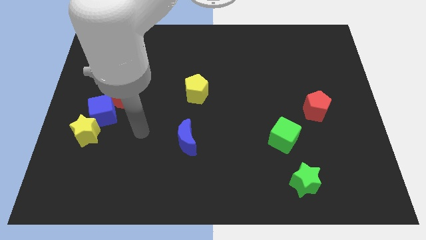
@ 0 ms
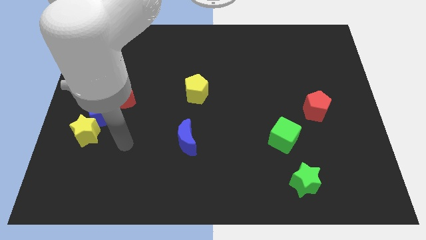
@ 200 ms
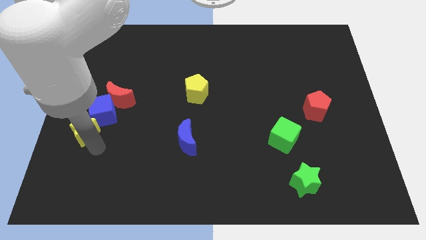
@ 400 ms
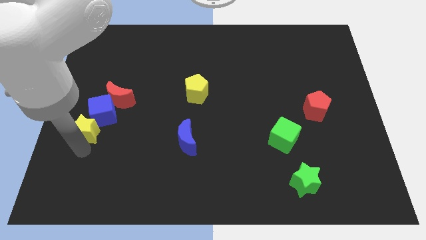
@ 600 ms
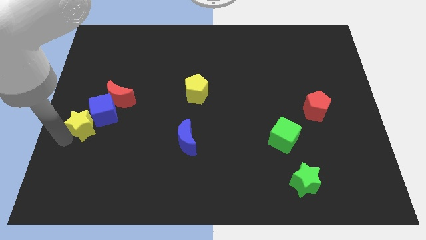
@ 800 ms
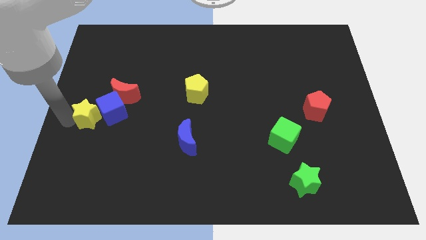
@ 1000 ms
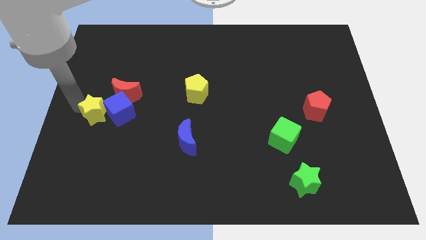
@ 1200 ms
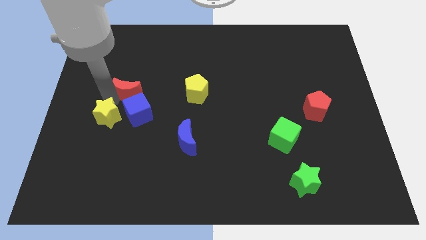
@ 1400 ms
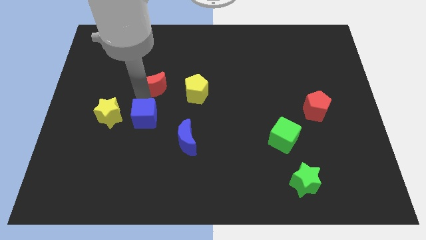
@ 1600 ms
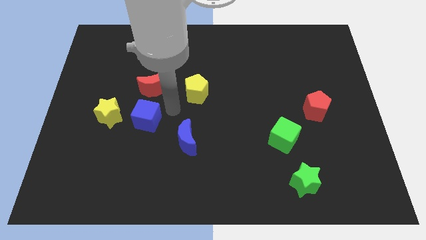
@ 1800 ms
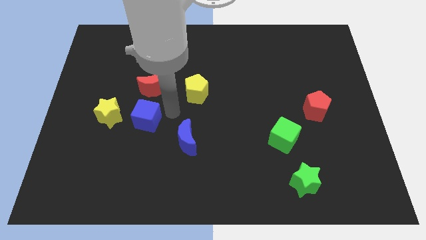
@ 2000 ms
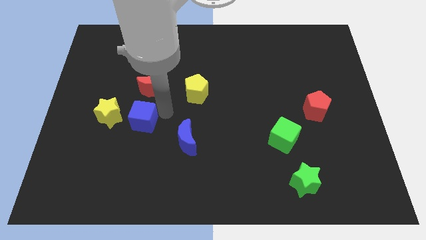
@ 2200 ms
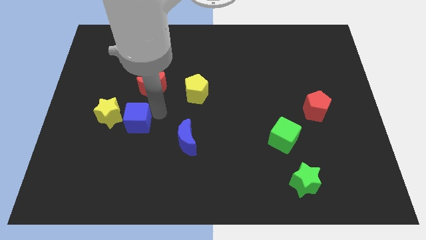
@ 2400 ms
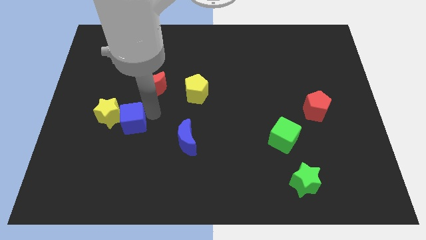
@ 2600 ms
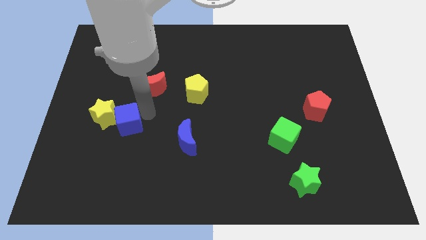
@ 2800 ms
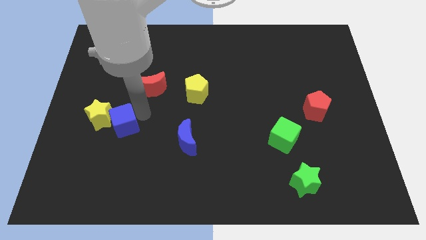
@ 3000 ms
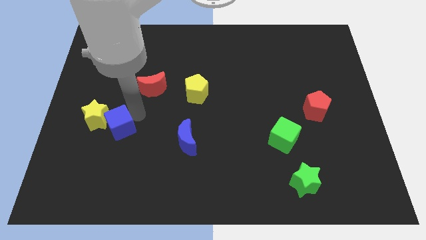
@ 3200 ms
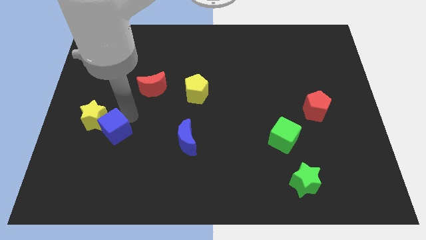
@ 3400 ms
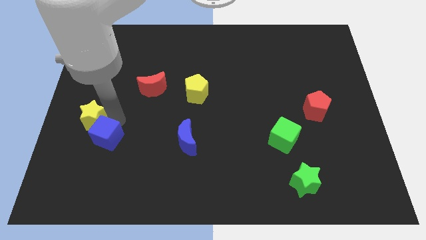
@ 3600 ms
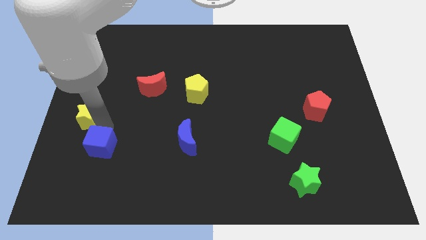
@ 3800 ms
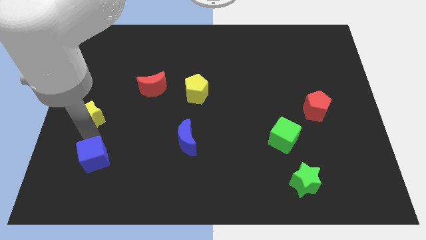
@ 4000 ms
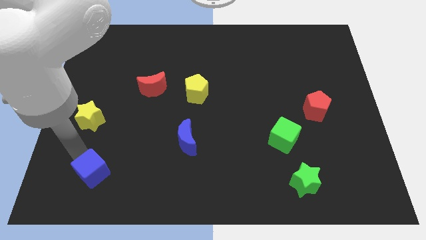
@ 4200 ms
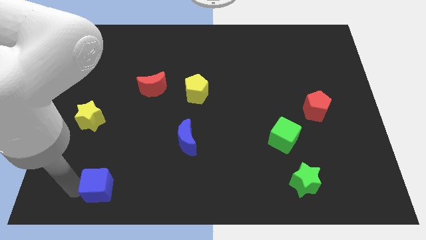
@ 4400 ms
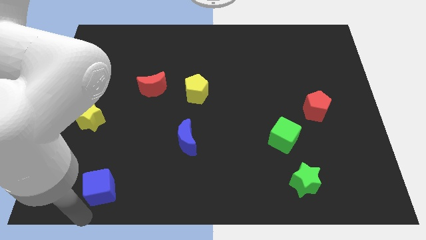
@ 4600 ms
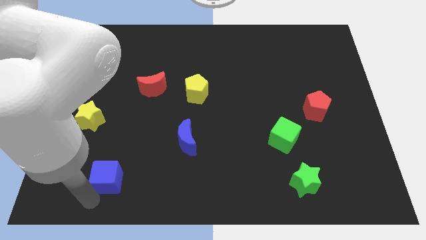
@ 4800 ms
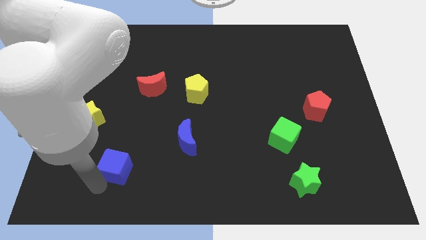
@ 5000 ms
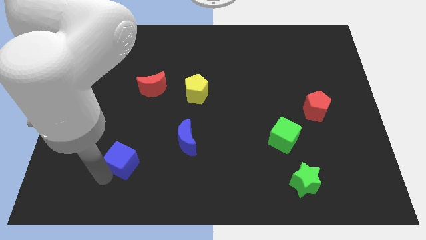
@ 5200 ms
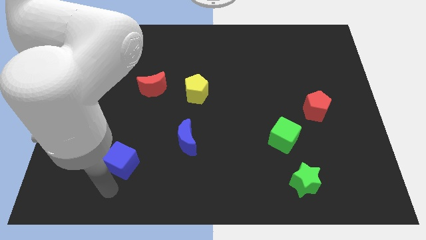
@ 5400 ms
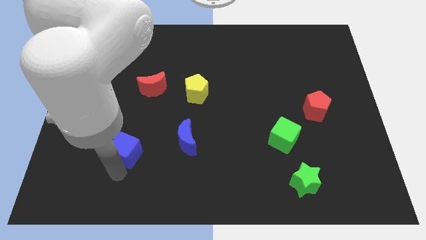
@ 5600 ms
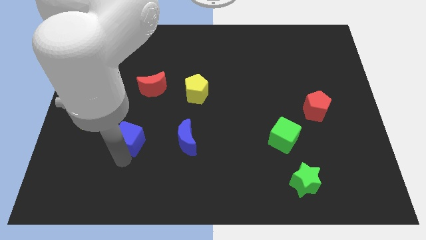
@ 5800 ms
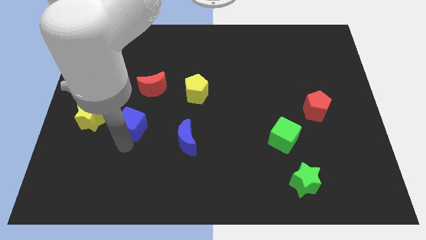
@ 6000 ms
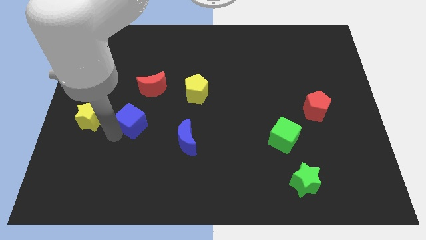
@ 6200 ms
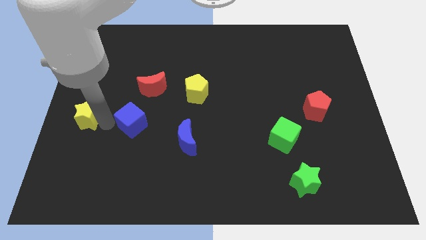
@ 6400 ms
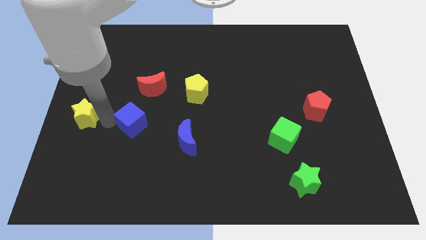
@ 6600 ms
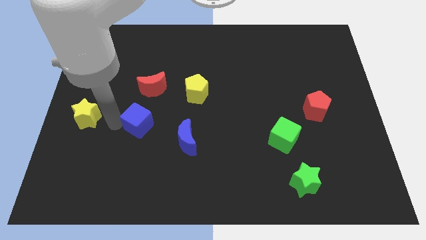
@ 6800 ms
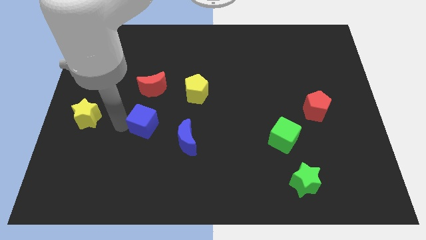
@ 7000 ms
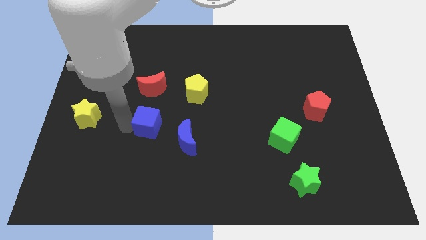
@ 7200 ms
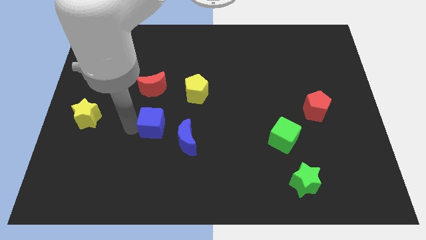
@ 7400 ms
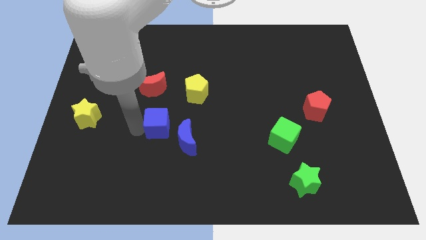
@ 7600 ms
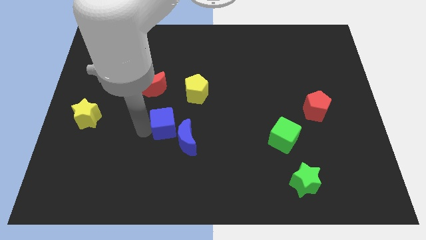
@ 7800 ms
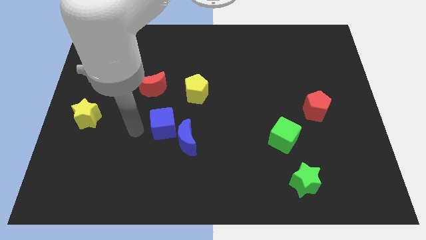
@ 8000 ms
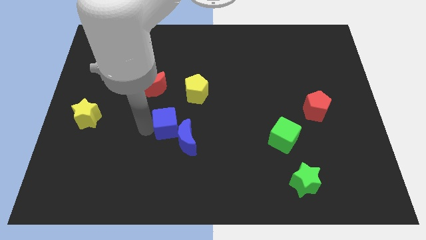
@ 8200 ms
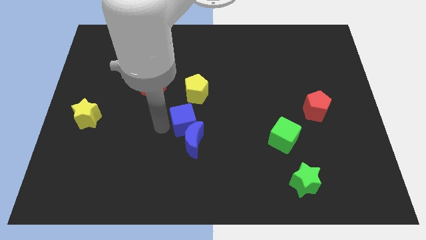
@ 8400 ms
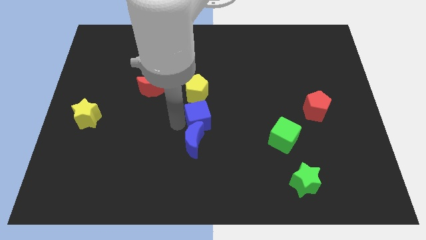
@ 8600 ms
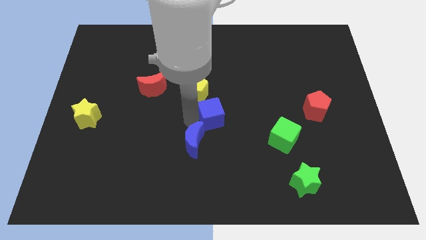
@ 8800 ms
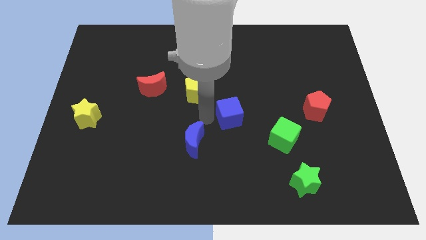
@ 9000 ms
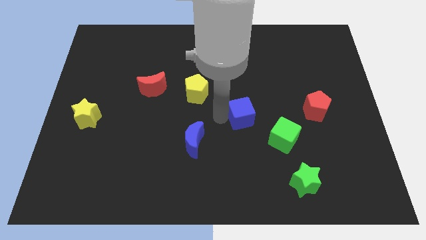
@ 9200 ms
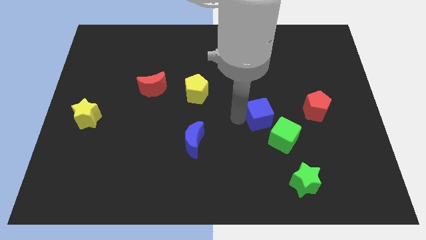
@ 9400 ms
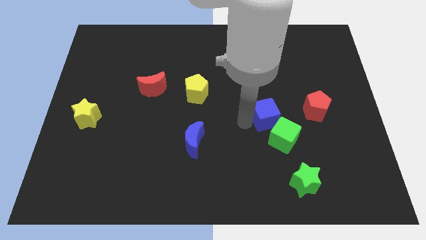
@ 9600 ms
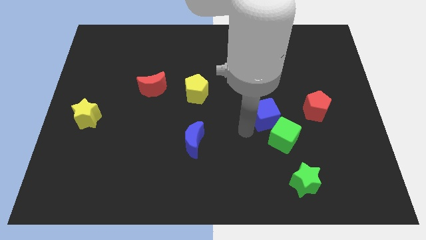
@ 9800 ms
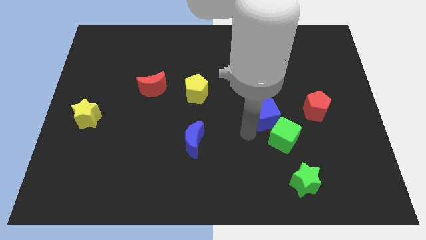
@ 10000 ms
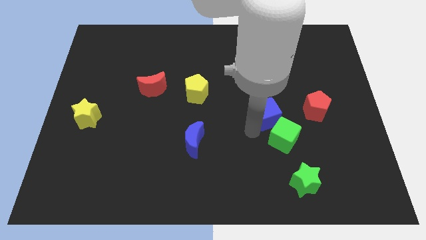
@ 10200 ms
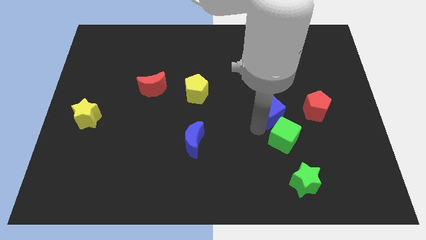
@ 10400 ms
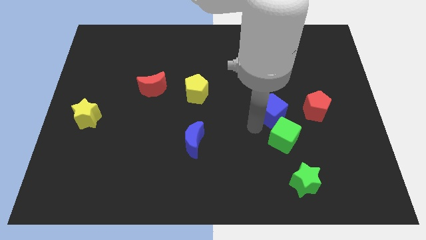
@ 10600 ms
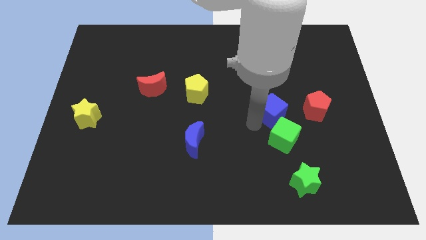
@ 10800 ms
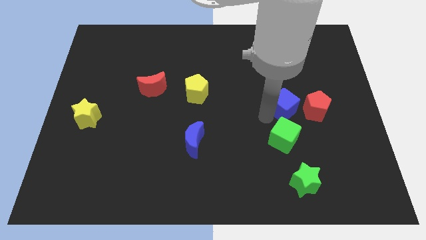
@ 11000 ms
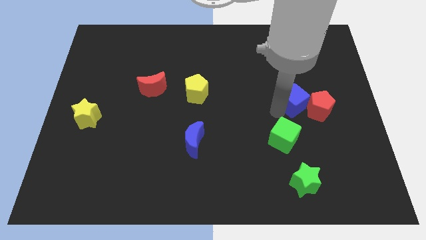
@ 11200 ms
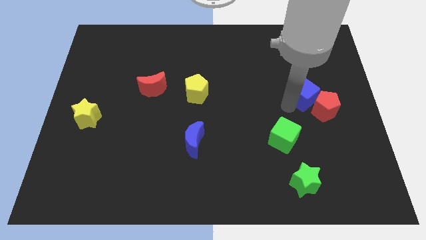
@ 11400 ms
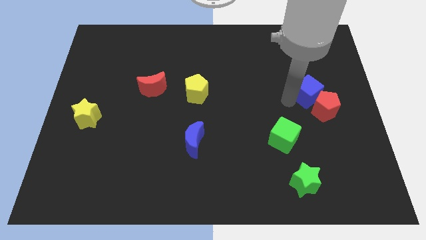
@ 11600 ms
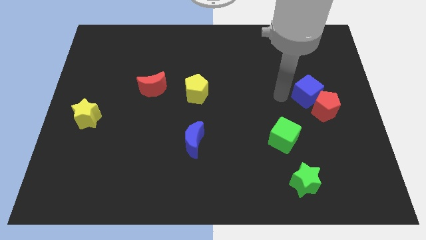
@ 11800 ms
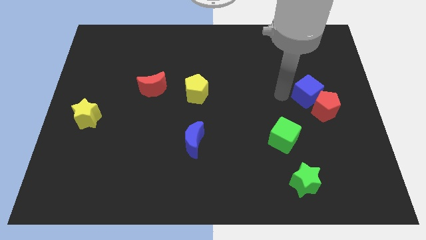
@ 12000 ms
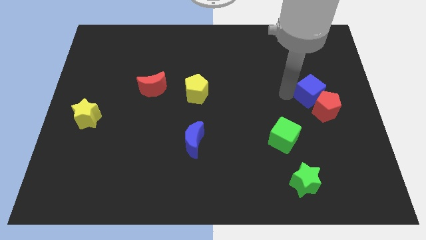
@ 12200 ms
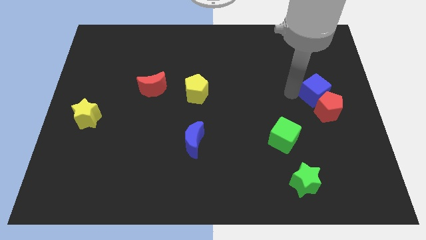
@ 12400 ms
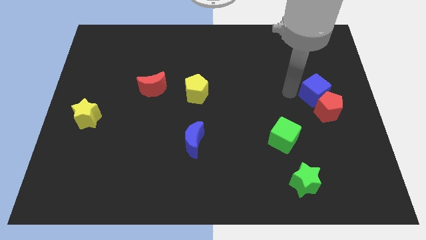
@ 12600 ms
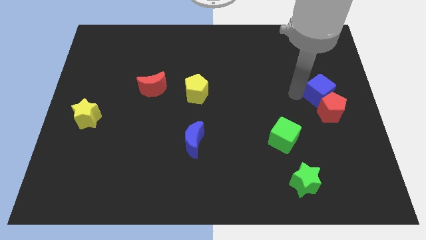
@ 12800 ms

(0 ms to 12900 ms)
move the blue cube to the center right
